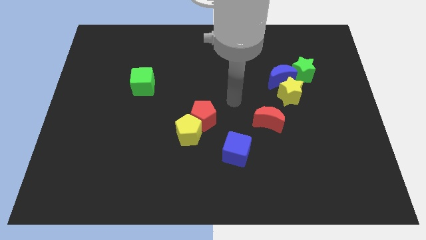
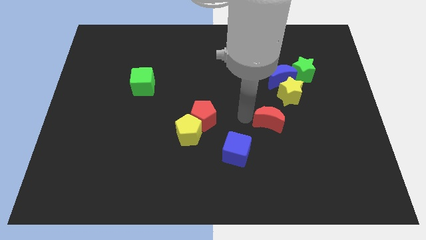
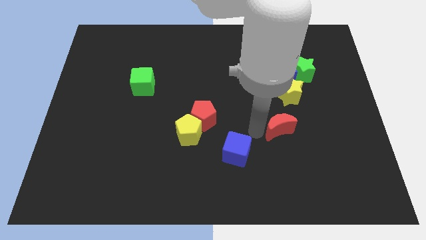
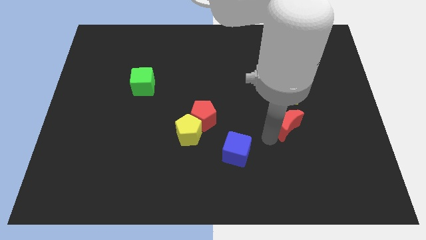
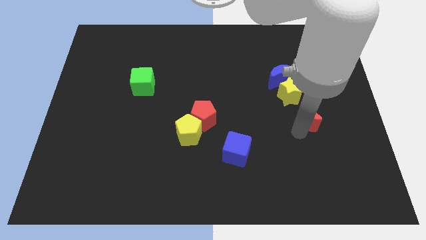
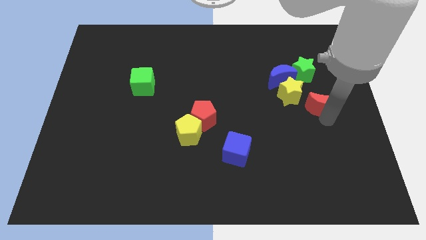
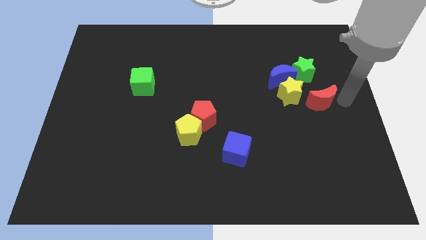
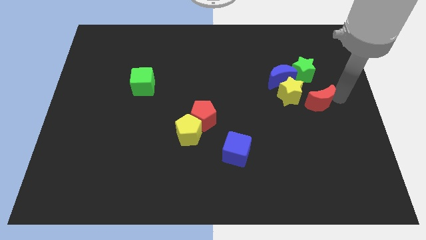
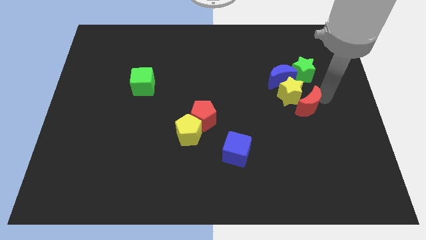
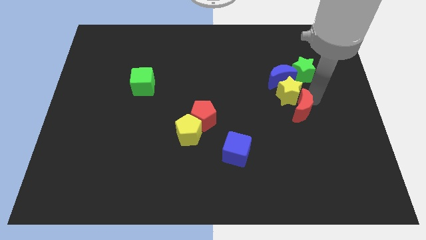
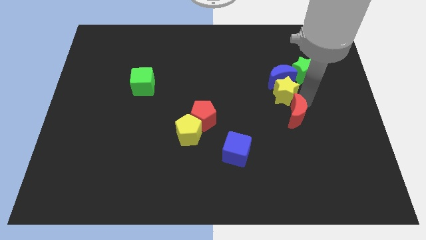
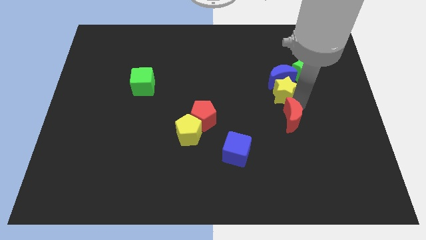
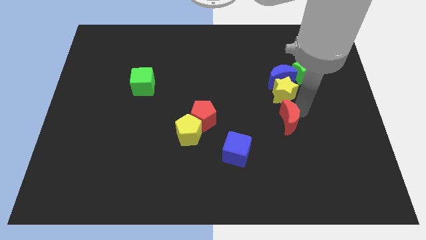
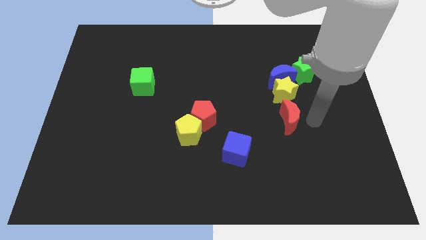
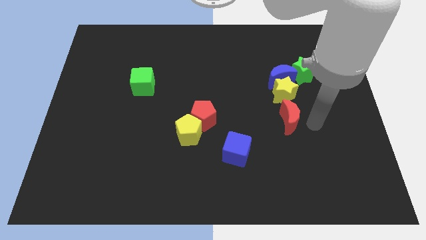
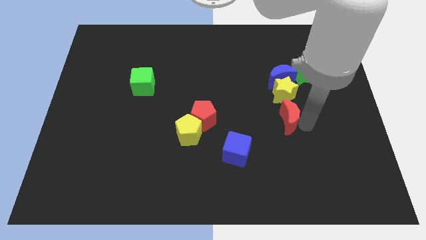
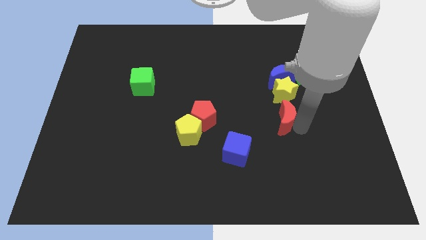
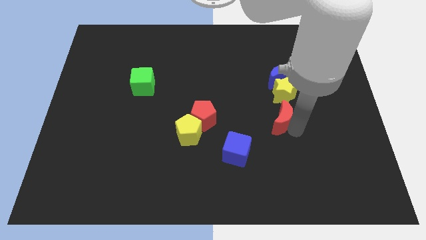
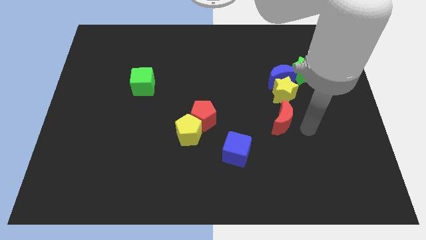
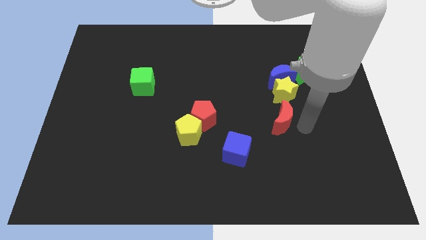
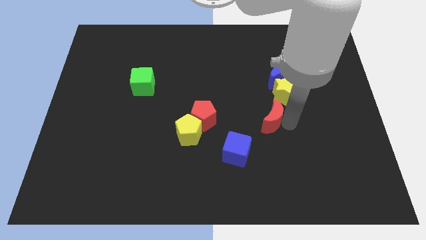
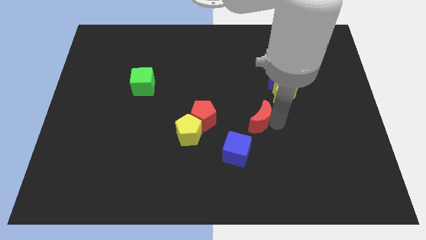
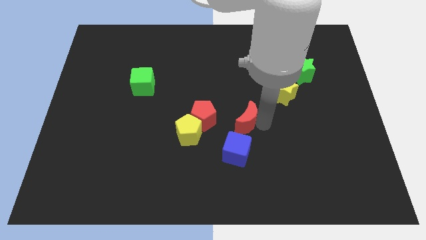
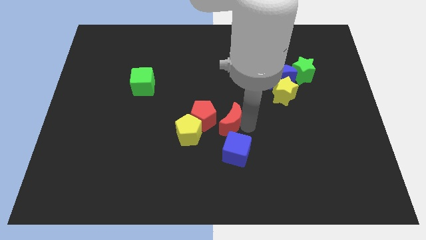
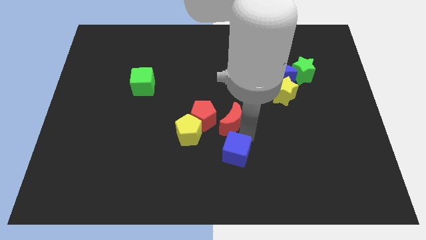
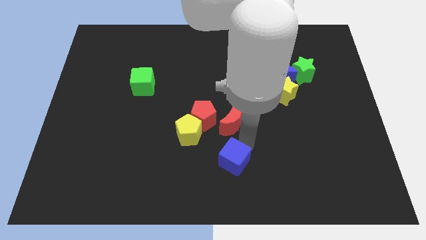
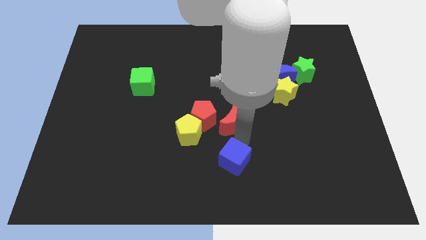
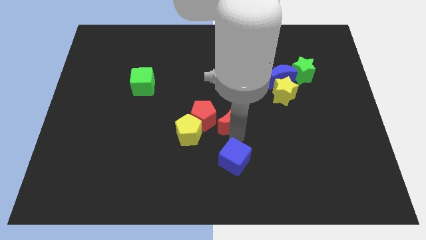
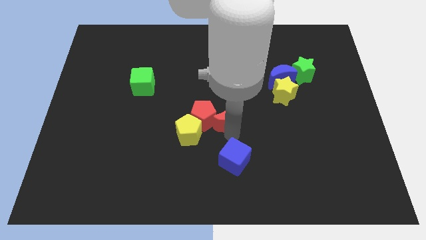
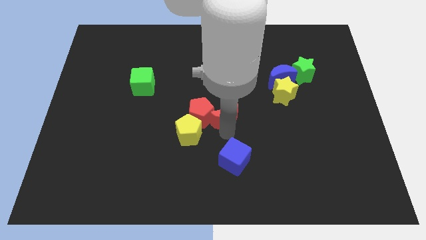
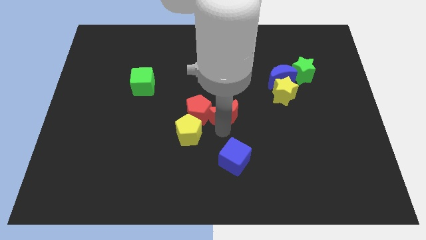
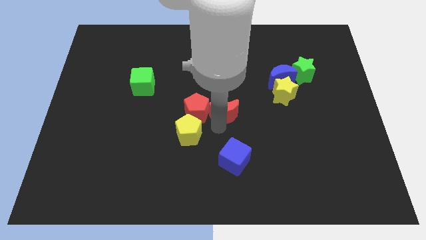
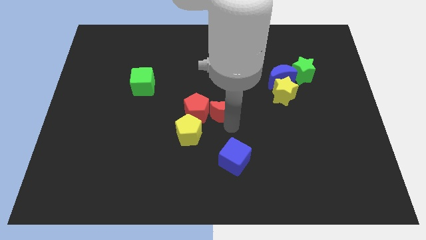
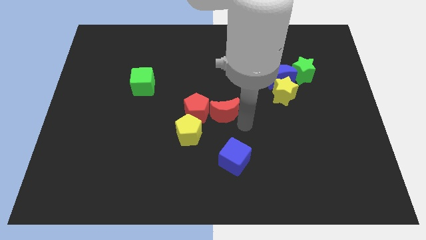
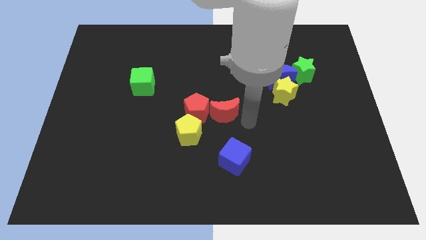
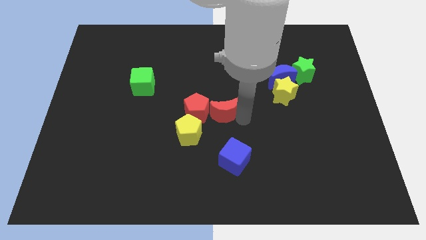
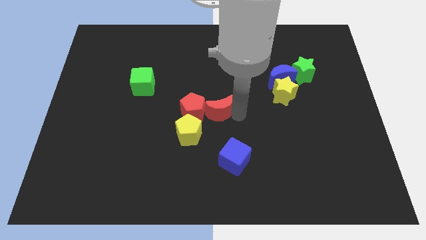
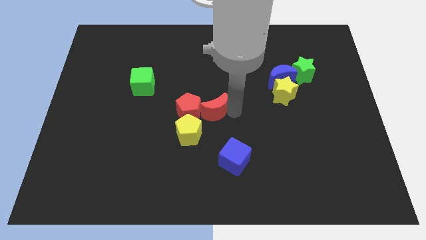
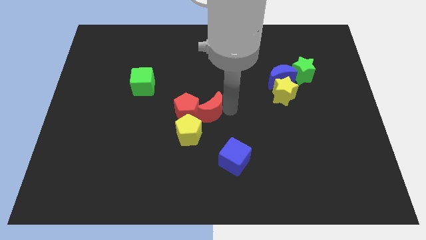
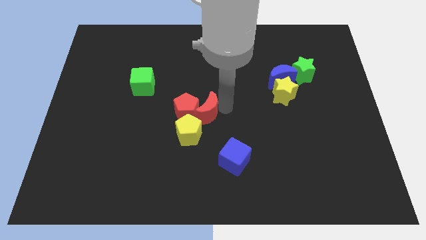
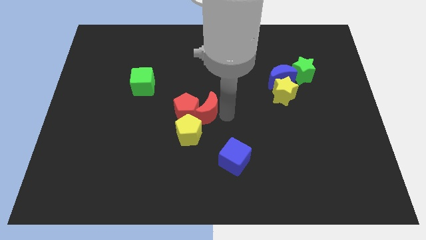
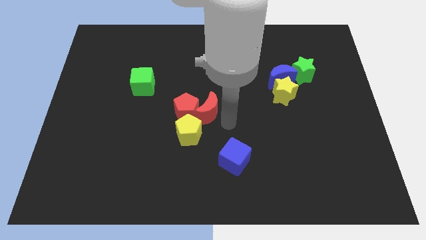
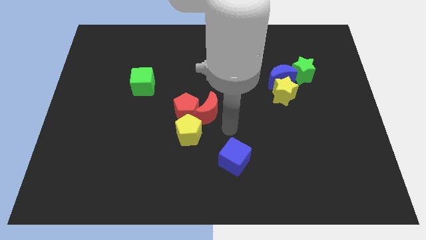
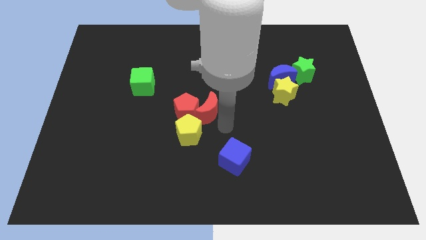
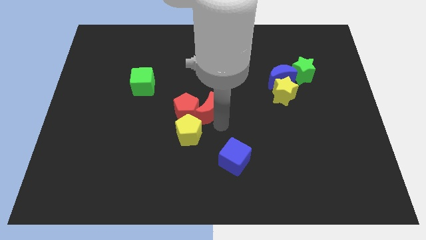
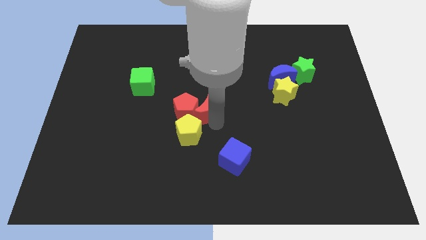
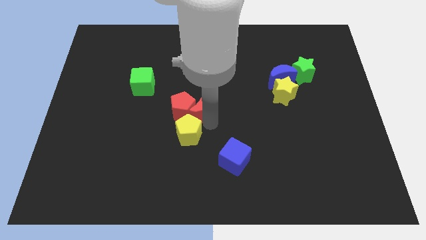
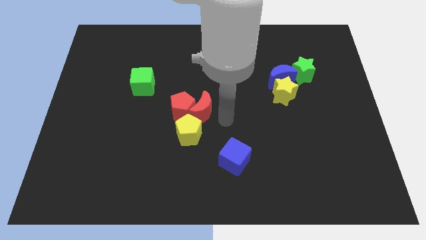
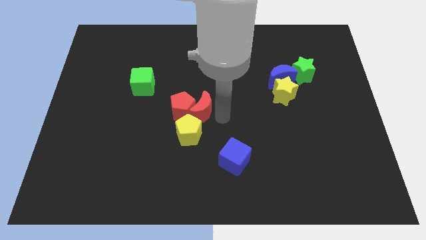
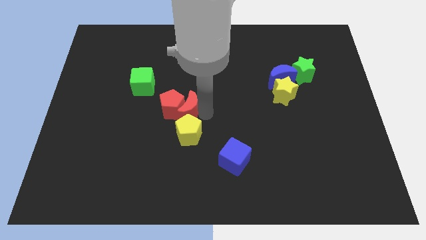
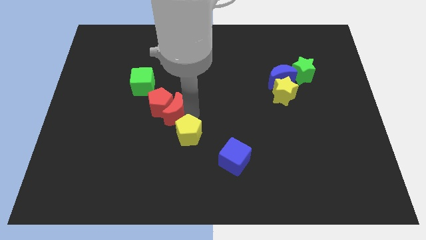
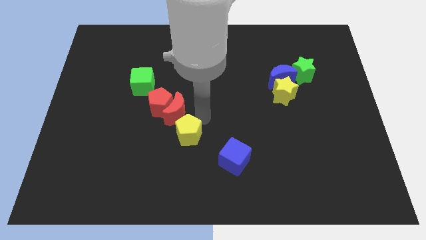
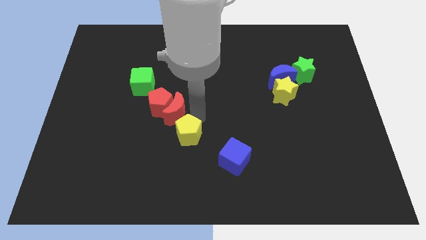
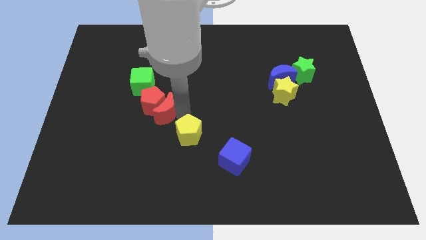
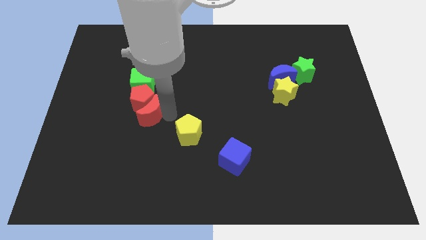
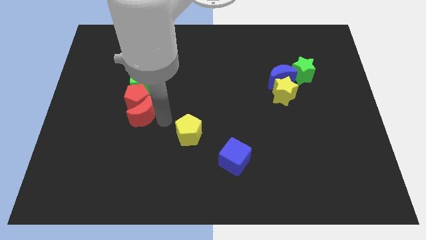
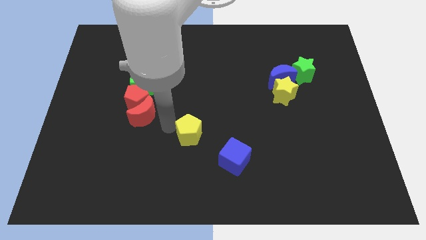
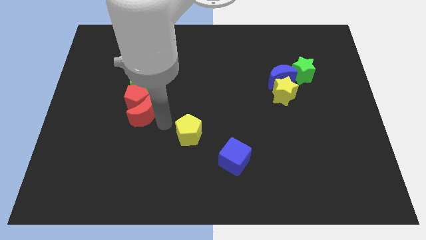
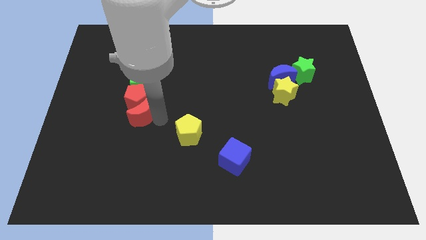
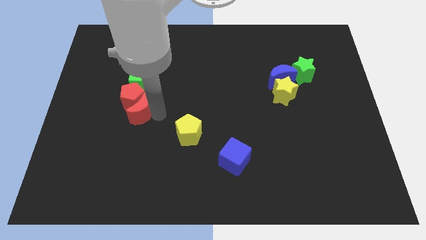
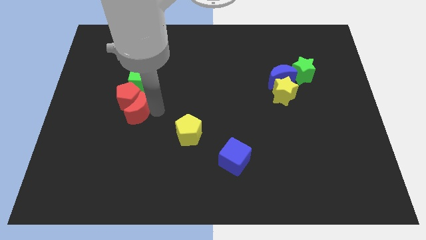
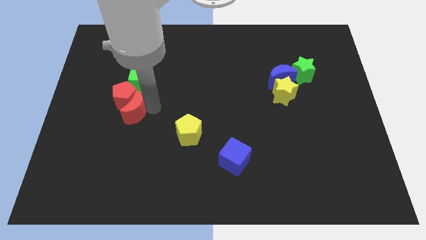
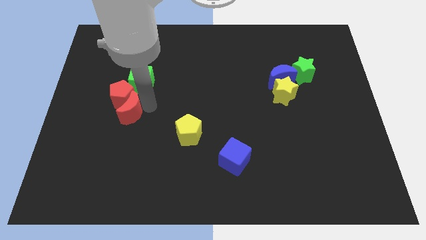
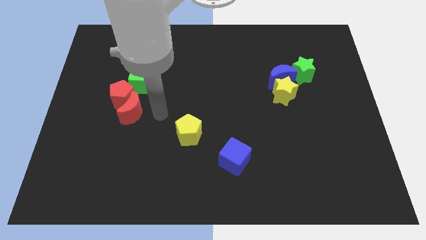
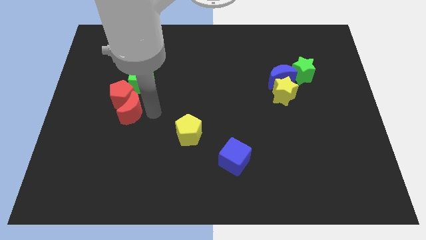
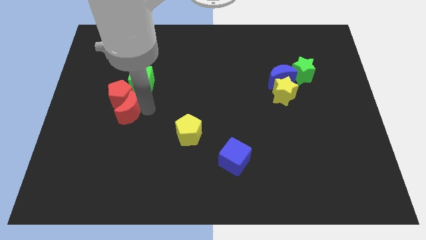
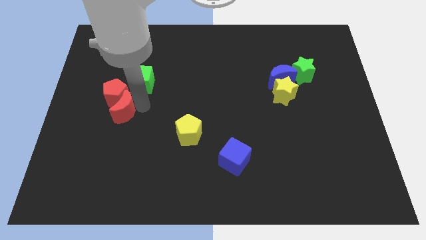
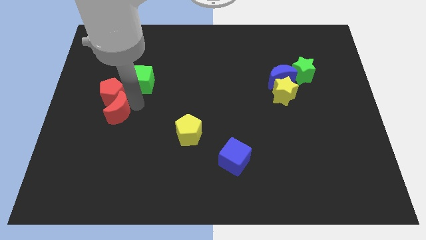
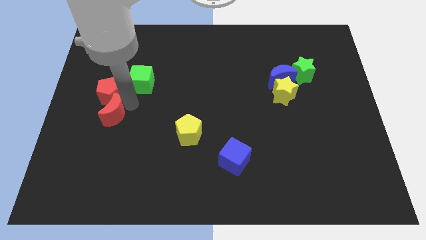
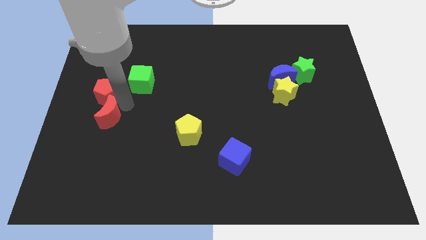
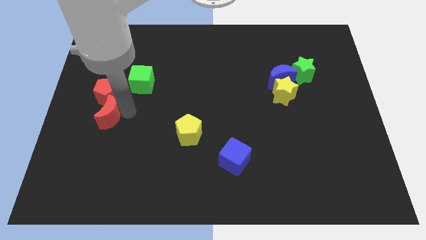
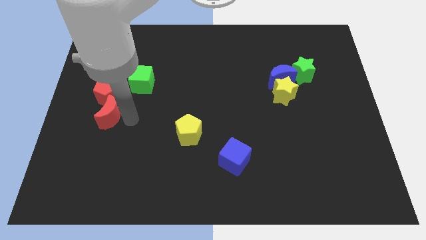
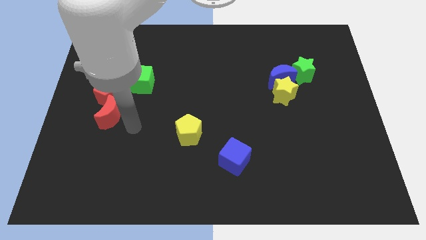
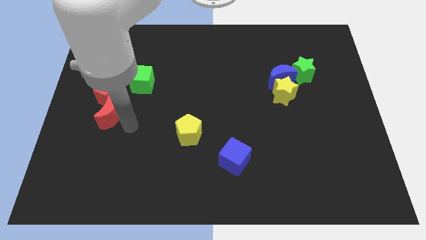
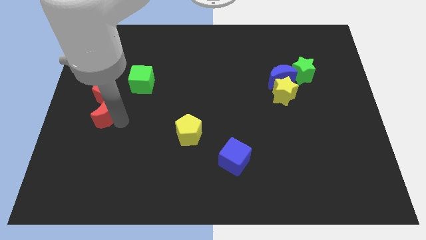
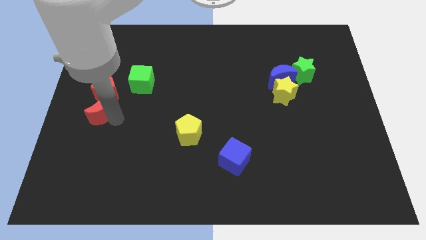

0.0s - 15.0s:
slide the red moon to the center left
